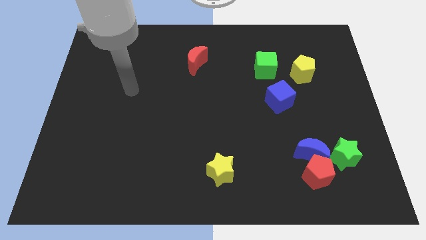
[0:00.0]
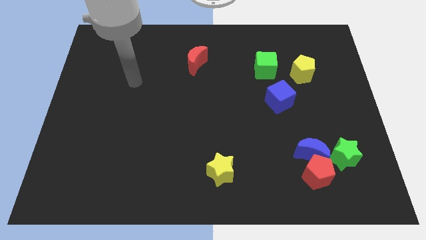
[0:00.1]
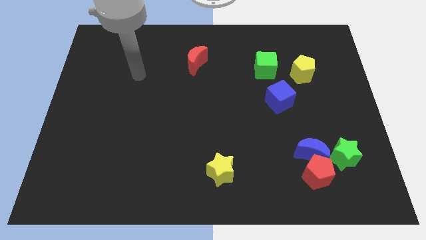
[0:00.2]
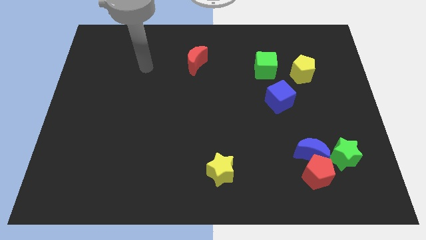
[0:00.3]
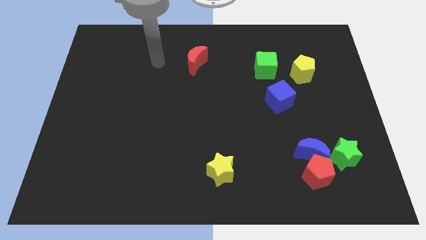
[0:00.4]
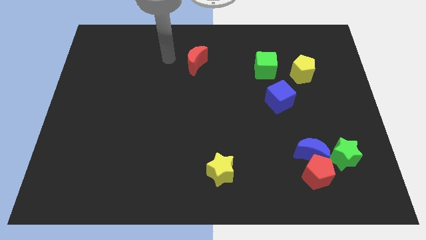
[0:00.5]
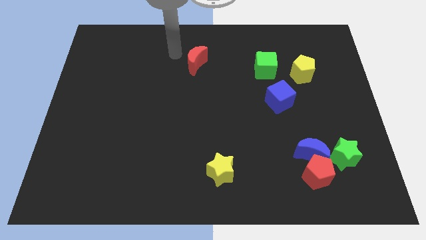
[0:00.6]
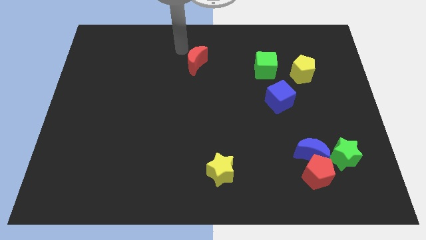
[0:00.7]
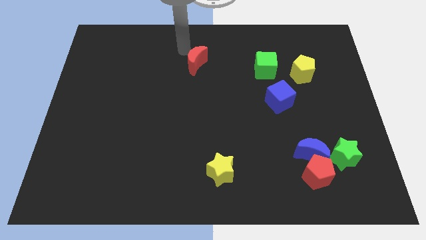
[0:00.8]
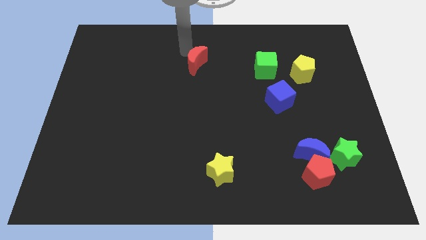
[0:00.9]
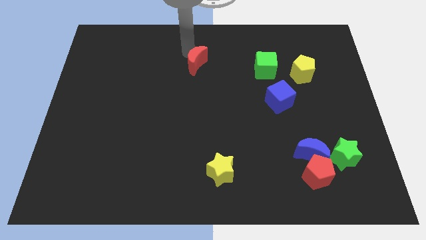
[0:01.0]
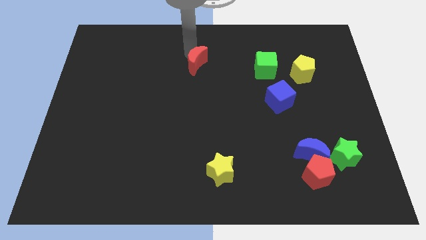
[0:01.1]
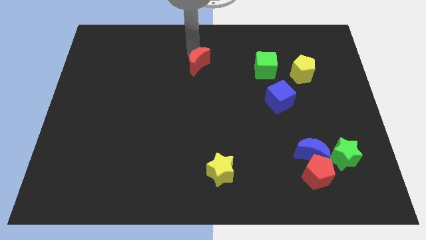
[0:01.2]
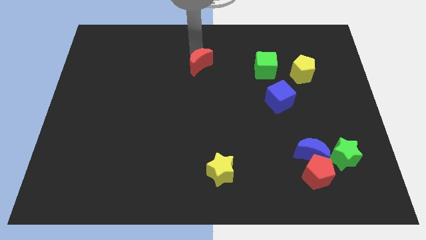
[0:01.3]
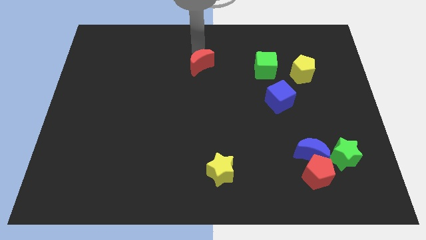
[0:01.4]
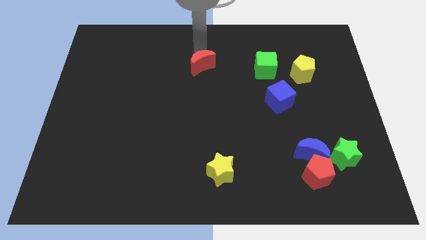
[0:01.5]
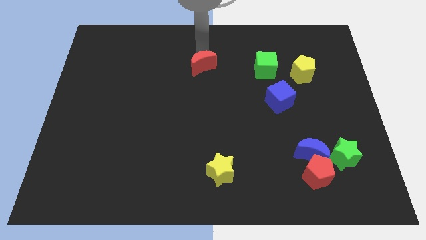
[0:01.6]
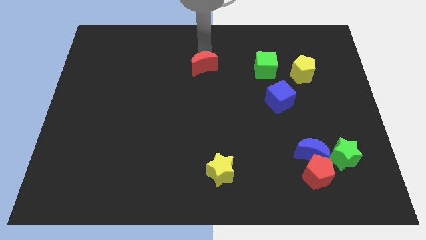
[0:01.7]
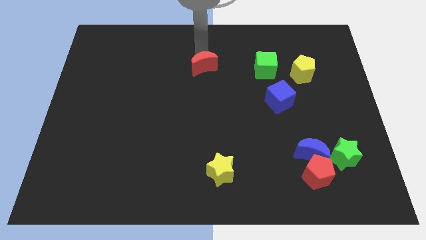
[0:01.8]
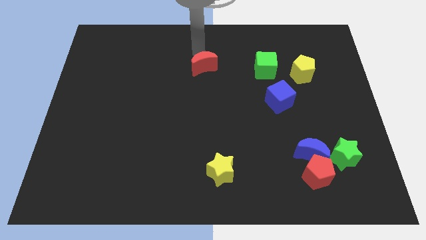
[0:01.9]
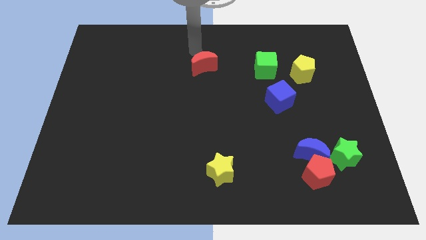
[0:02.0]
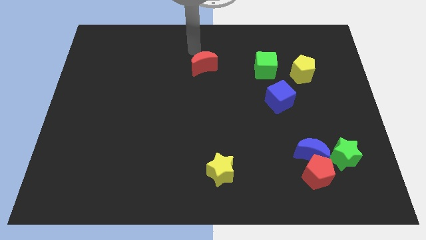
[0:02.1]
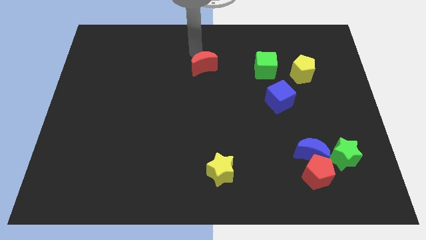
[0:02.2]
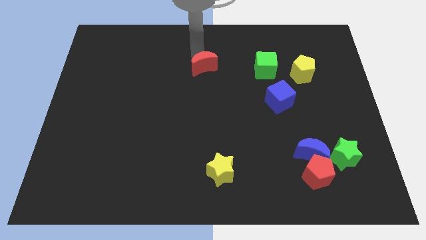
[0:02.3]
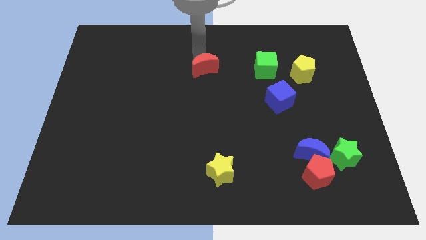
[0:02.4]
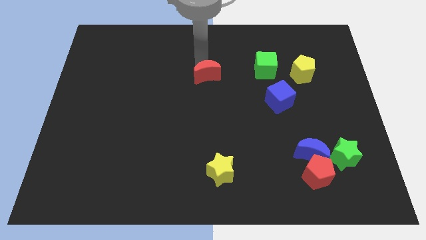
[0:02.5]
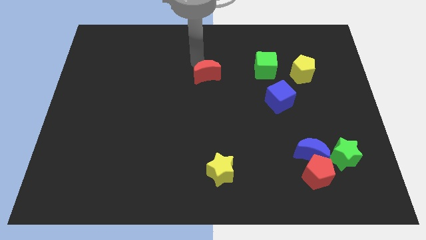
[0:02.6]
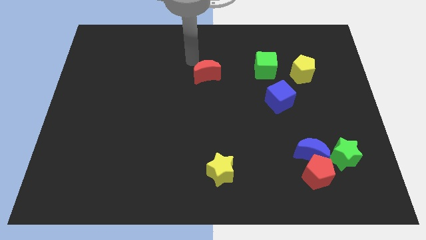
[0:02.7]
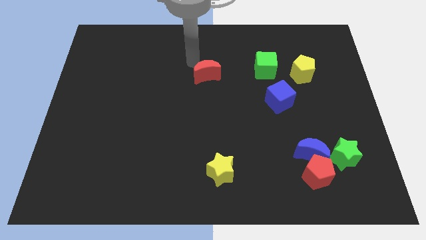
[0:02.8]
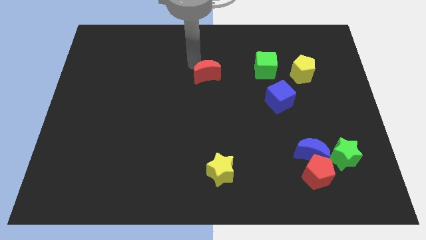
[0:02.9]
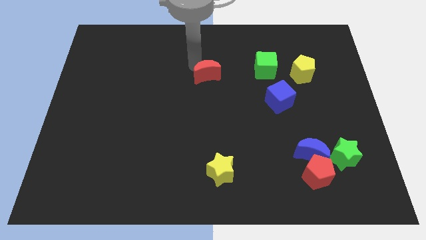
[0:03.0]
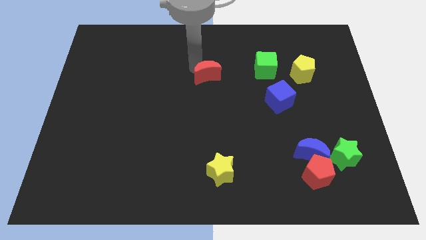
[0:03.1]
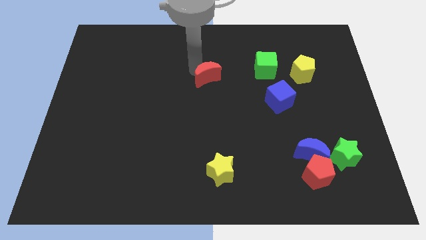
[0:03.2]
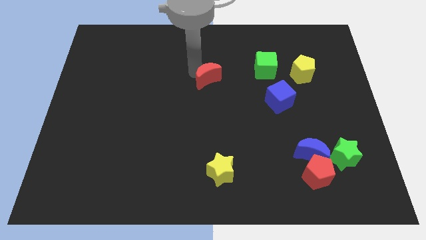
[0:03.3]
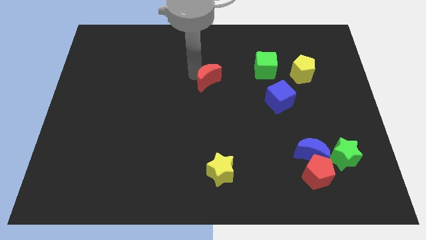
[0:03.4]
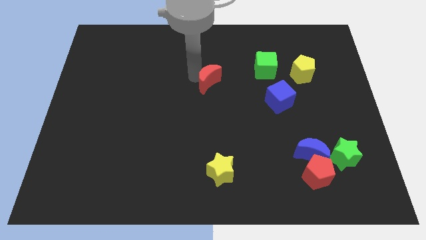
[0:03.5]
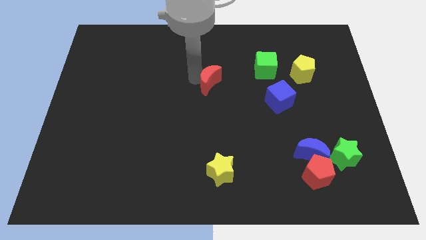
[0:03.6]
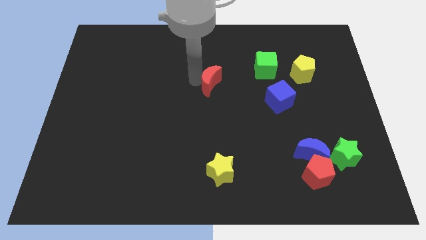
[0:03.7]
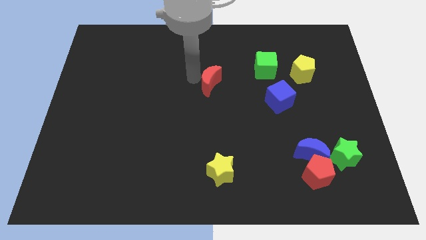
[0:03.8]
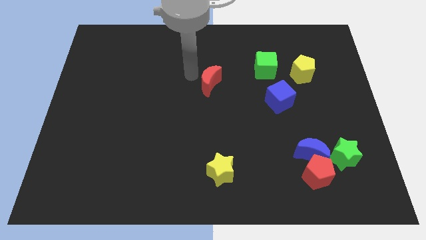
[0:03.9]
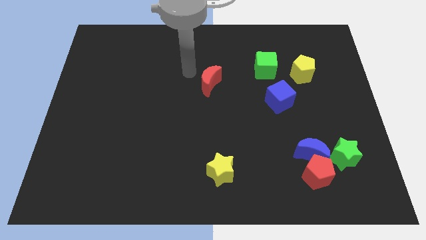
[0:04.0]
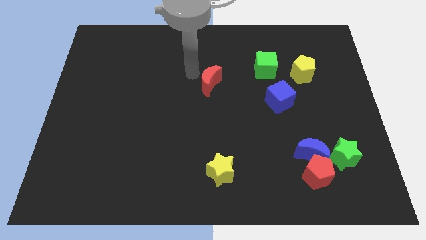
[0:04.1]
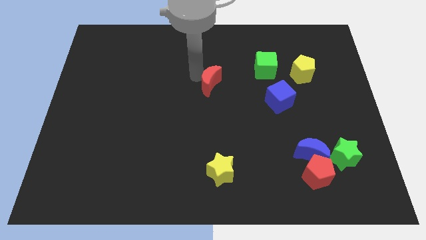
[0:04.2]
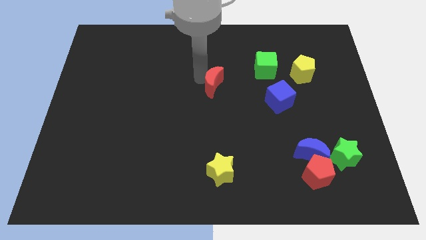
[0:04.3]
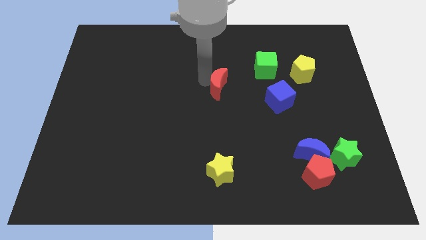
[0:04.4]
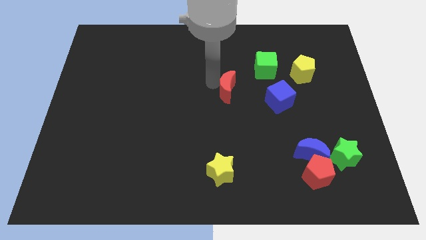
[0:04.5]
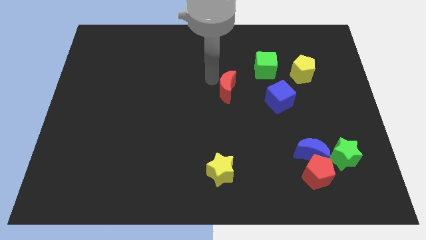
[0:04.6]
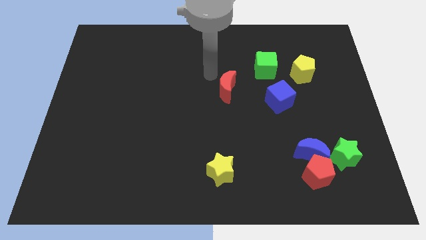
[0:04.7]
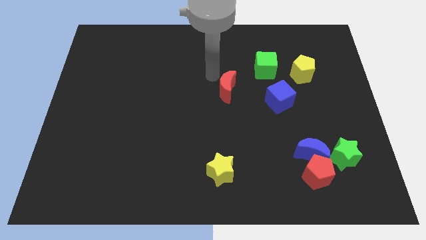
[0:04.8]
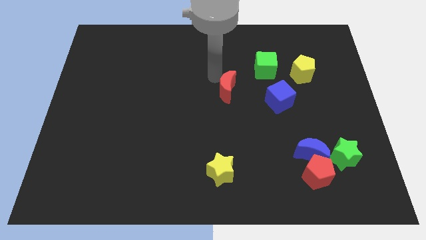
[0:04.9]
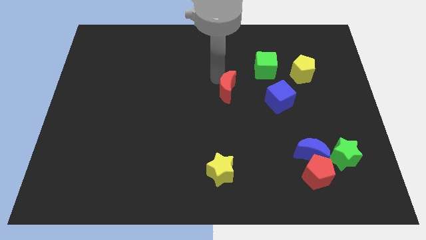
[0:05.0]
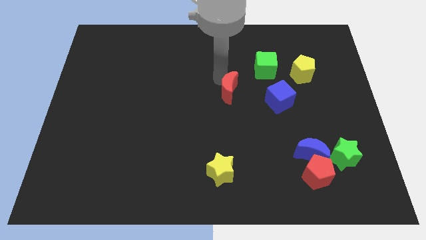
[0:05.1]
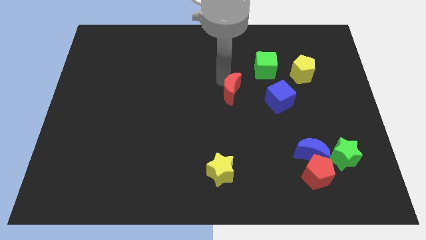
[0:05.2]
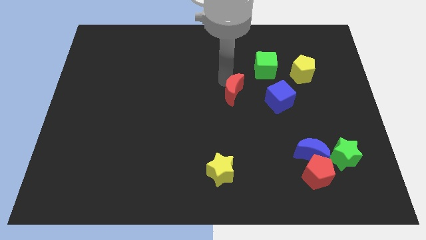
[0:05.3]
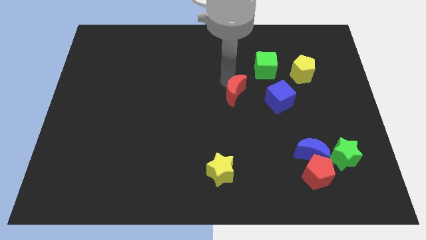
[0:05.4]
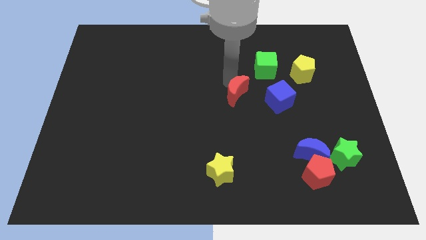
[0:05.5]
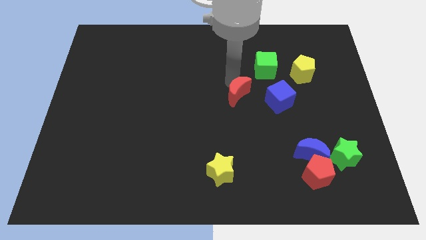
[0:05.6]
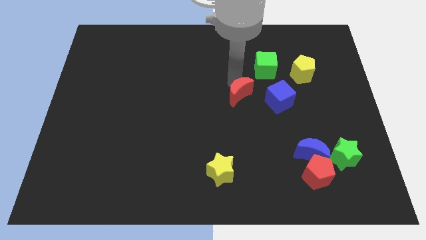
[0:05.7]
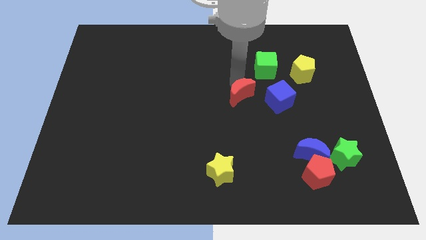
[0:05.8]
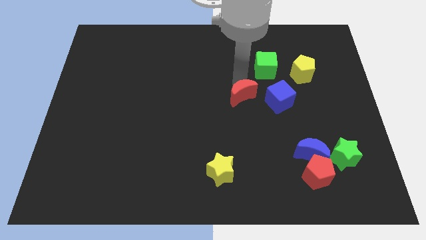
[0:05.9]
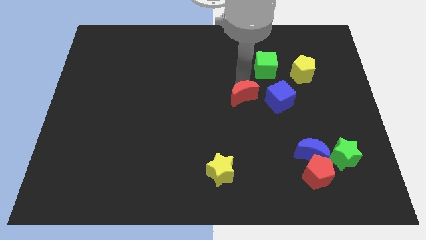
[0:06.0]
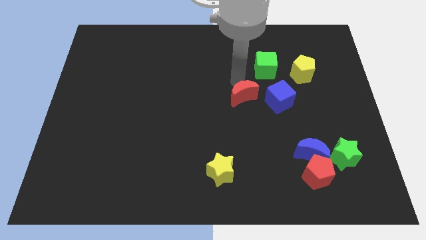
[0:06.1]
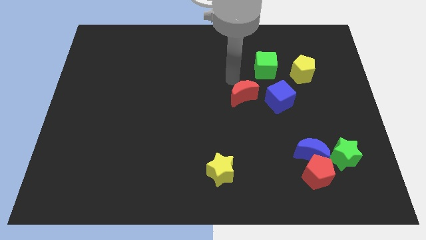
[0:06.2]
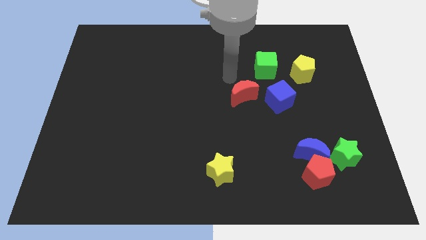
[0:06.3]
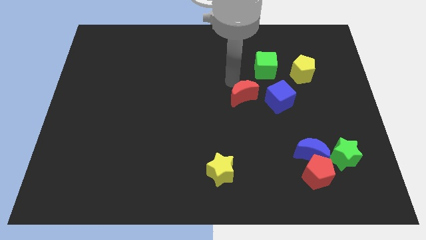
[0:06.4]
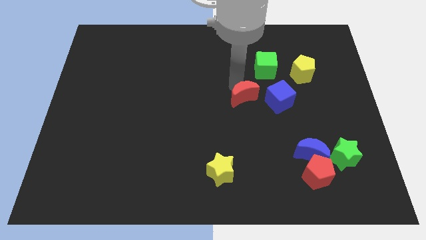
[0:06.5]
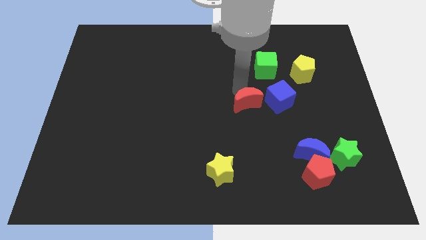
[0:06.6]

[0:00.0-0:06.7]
move the red moon diagonally down and to the left of the blue cube

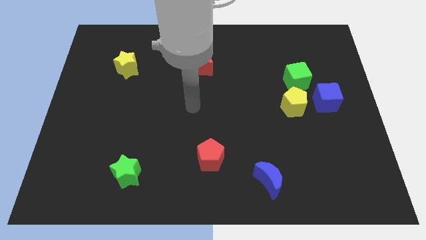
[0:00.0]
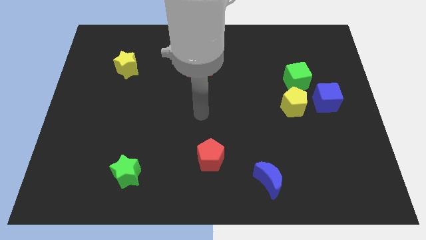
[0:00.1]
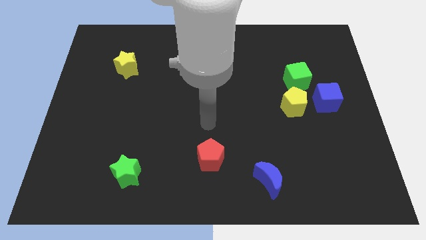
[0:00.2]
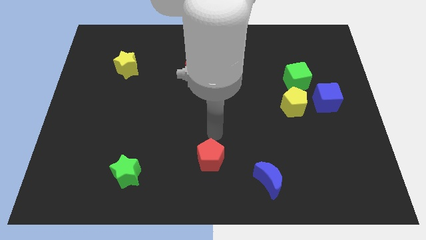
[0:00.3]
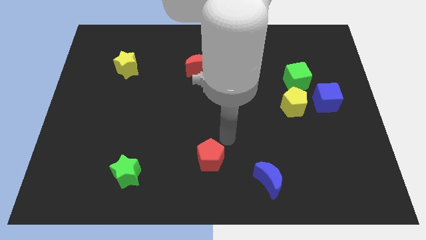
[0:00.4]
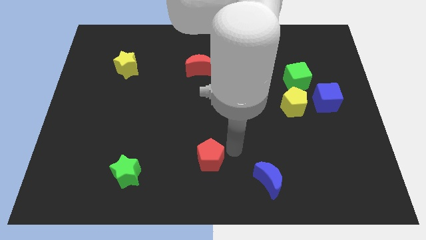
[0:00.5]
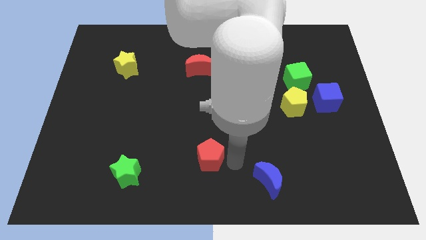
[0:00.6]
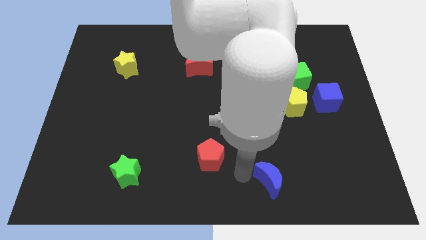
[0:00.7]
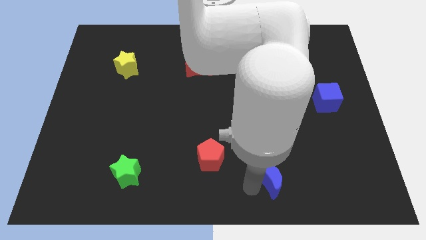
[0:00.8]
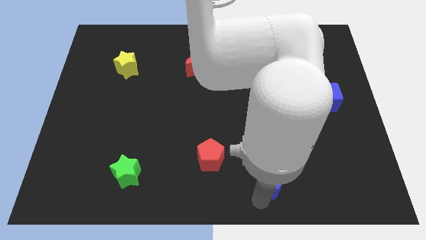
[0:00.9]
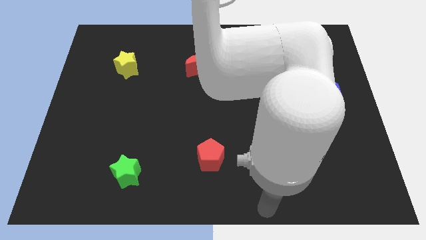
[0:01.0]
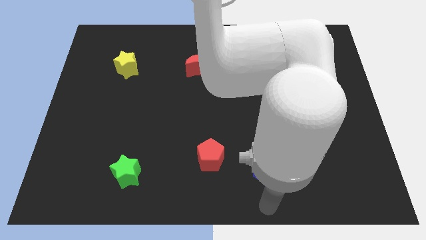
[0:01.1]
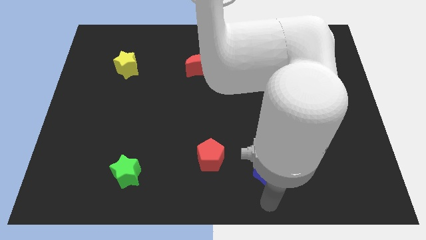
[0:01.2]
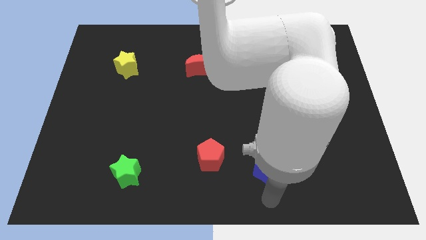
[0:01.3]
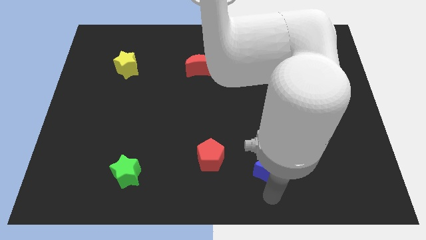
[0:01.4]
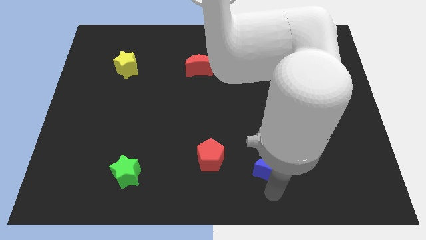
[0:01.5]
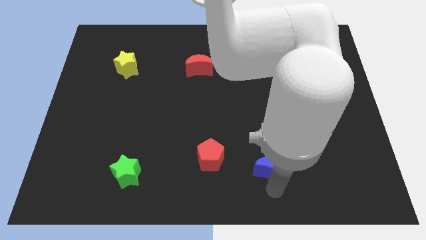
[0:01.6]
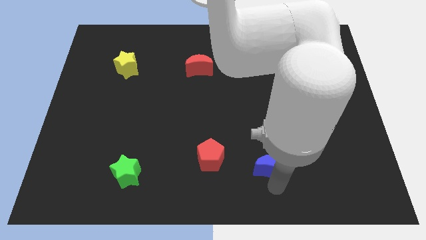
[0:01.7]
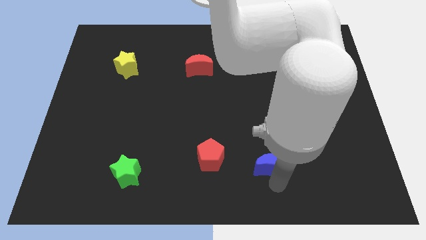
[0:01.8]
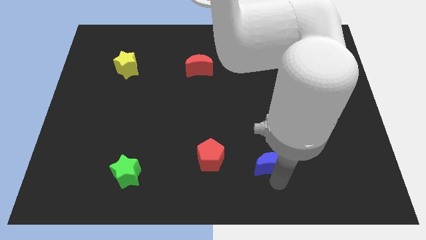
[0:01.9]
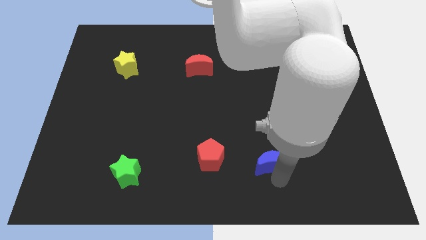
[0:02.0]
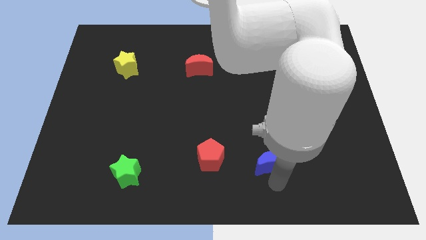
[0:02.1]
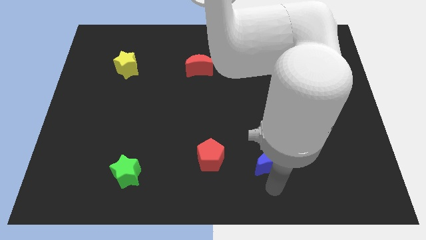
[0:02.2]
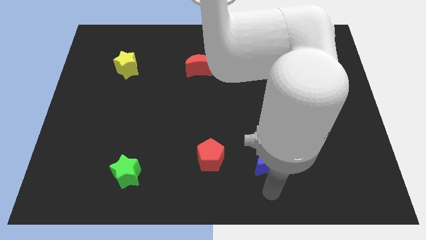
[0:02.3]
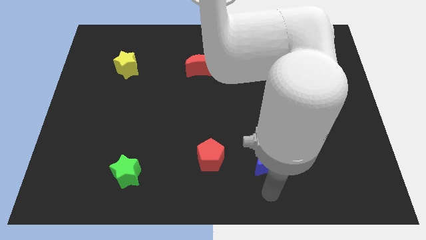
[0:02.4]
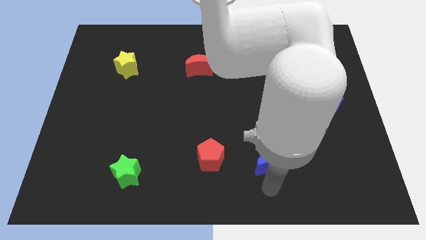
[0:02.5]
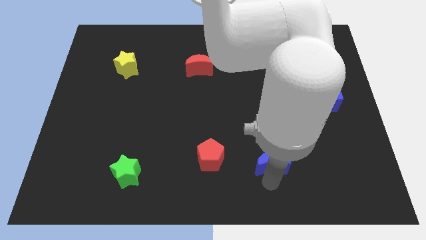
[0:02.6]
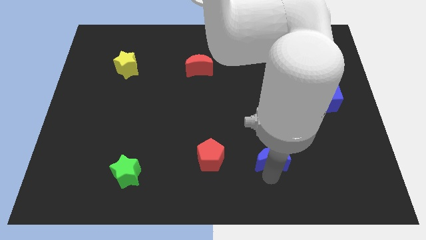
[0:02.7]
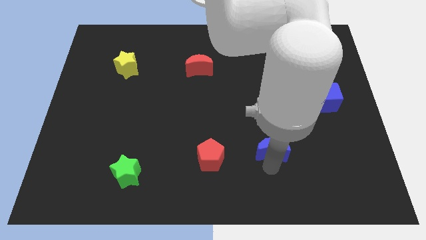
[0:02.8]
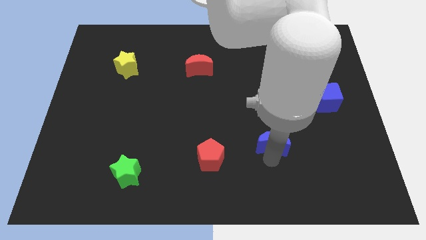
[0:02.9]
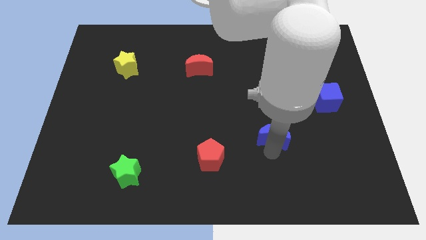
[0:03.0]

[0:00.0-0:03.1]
slide the blue moon to the bottom left side of the yellow pentagon
